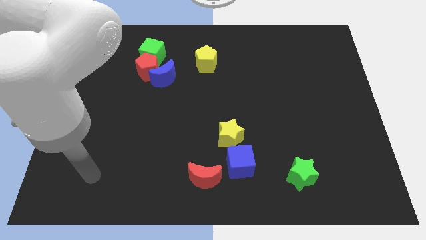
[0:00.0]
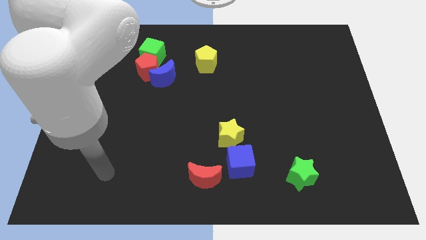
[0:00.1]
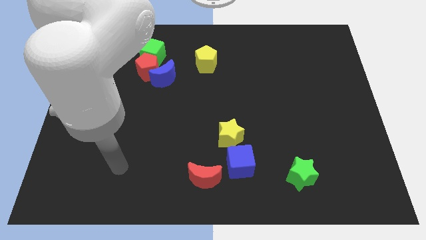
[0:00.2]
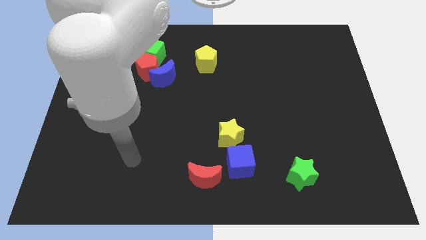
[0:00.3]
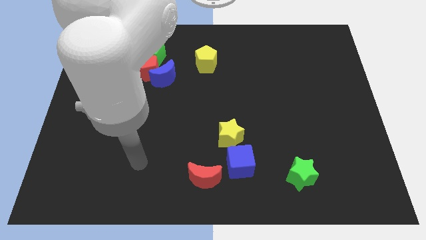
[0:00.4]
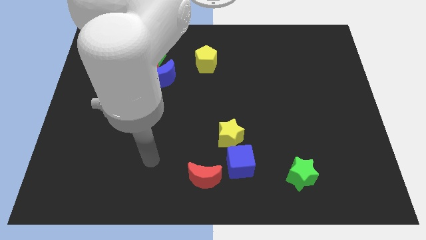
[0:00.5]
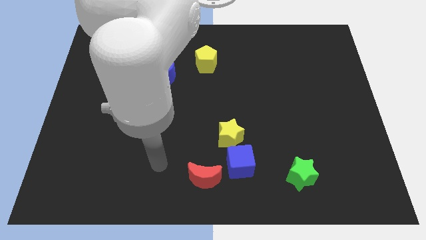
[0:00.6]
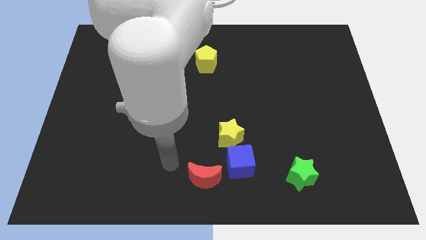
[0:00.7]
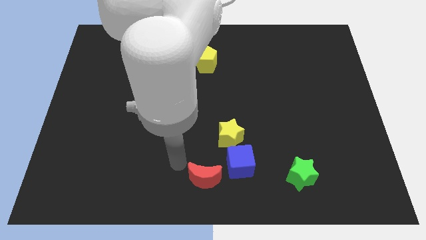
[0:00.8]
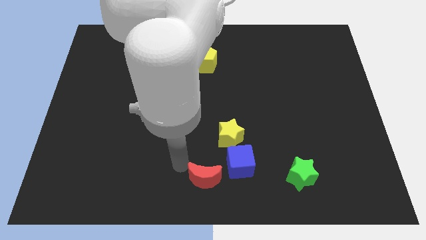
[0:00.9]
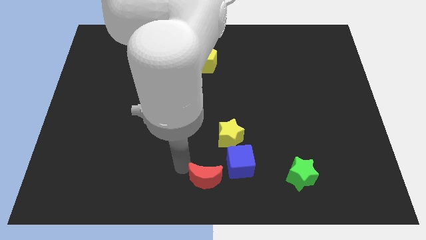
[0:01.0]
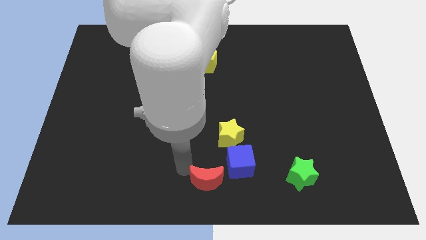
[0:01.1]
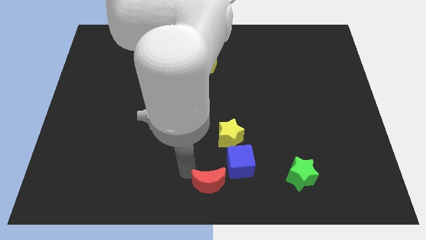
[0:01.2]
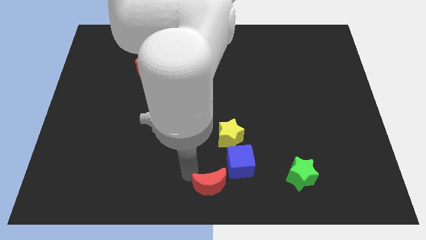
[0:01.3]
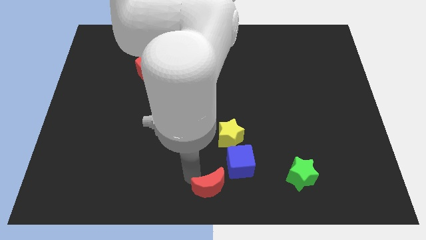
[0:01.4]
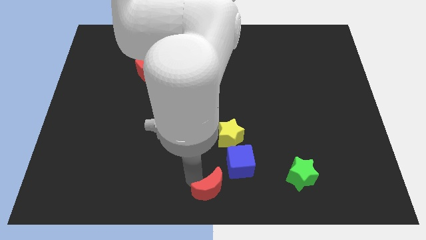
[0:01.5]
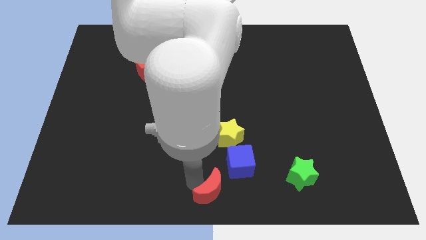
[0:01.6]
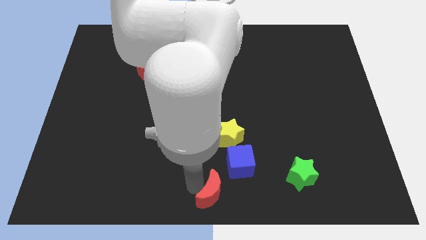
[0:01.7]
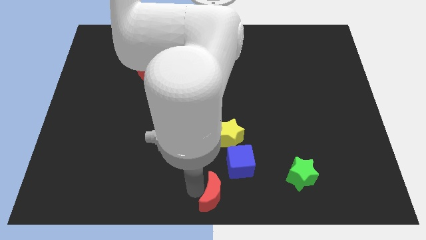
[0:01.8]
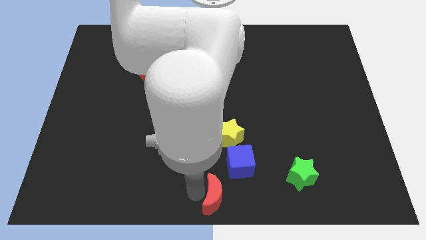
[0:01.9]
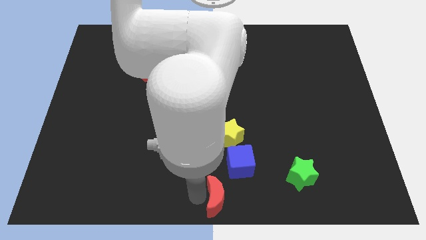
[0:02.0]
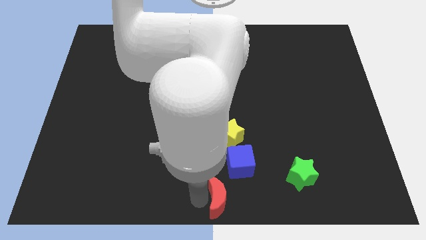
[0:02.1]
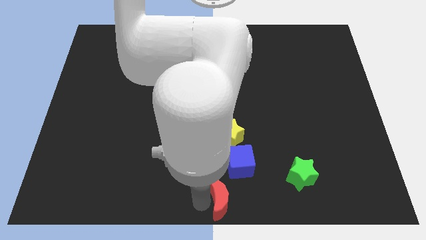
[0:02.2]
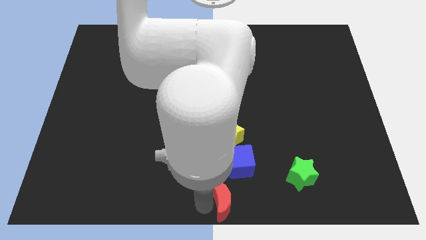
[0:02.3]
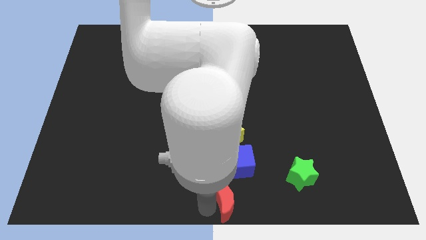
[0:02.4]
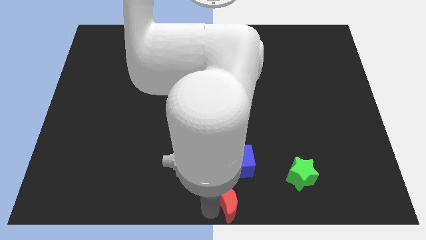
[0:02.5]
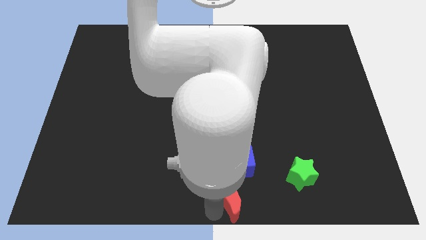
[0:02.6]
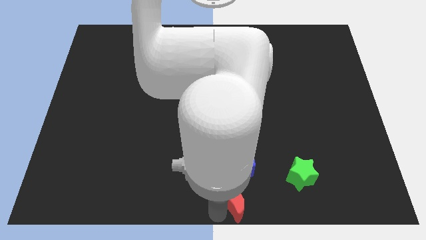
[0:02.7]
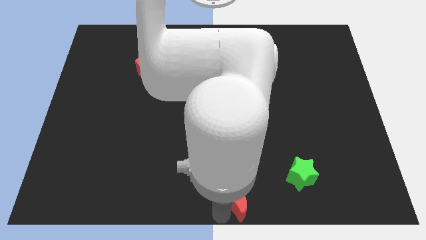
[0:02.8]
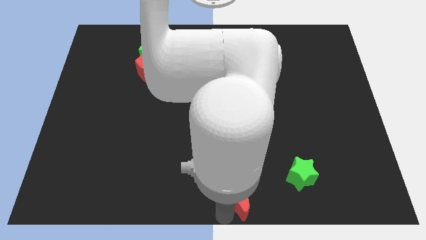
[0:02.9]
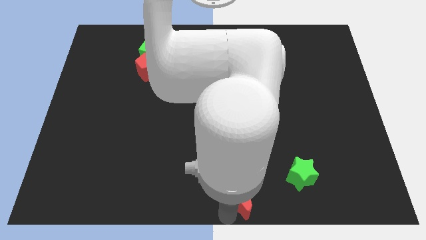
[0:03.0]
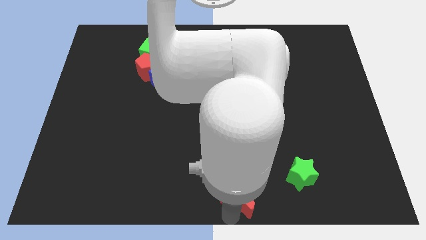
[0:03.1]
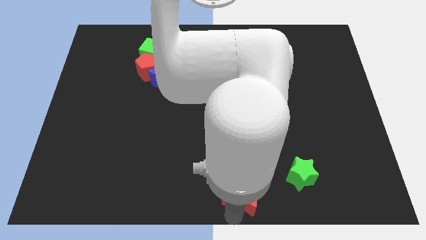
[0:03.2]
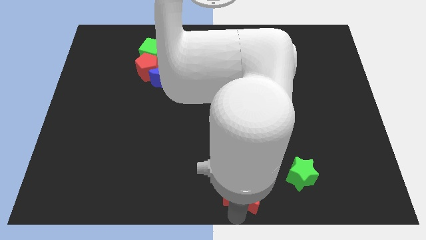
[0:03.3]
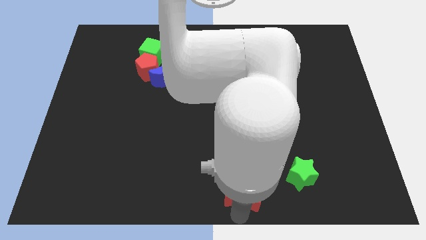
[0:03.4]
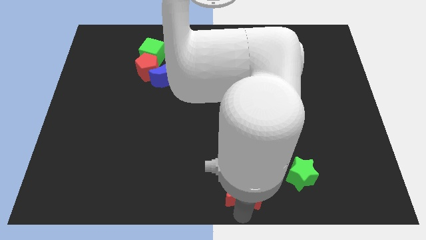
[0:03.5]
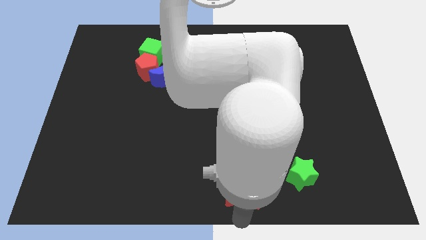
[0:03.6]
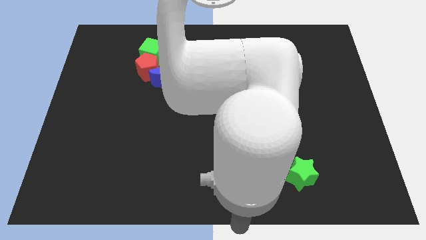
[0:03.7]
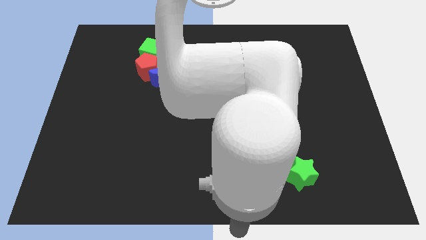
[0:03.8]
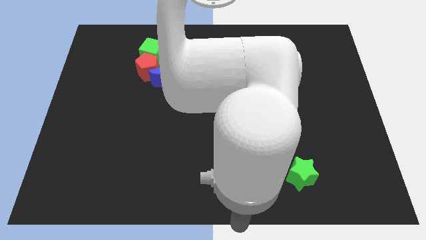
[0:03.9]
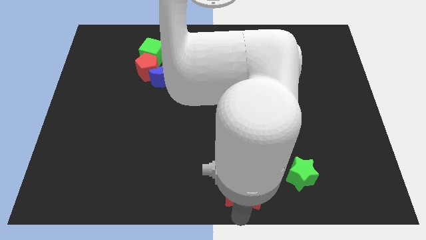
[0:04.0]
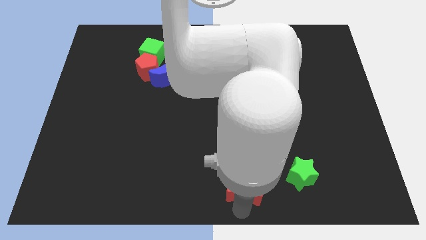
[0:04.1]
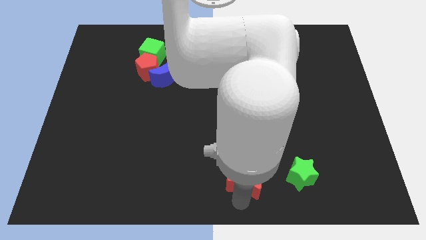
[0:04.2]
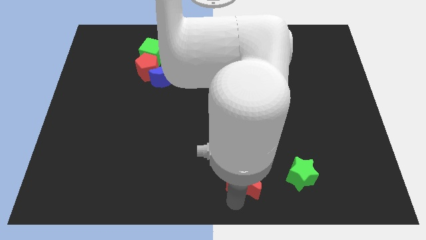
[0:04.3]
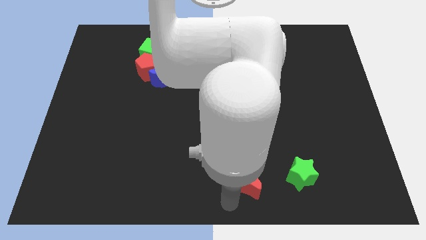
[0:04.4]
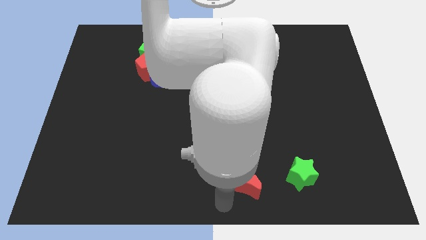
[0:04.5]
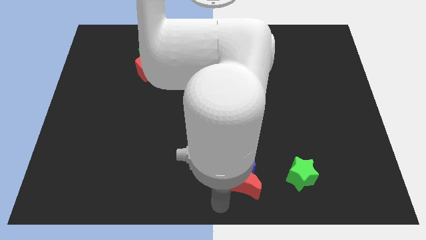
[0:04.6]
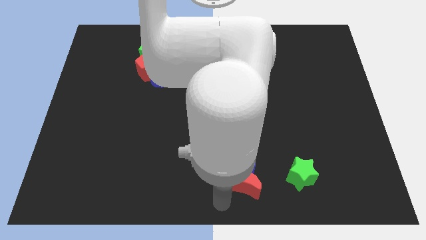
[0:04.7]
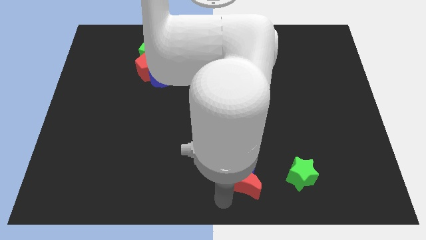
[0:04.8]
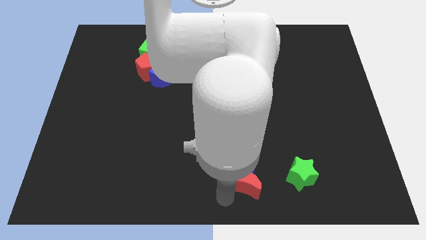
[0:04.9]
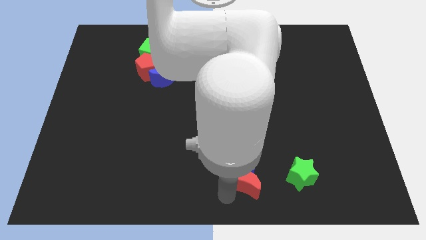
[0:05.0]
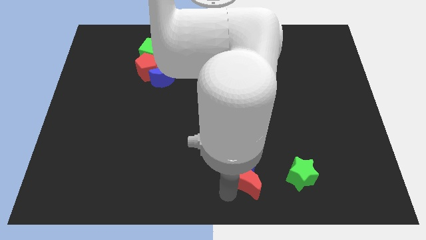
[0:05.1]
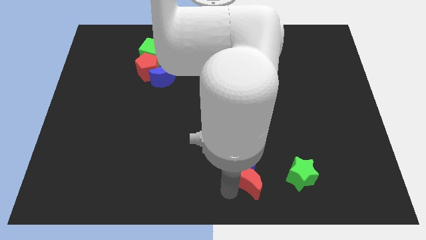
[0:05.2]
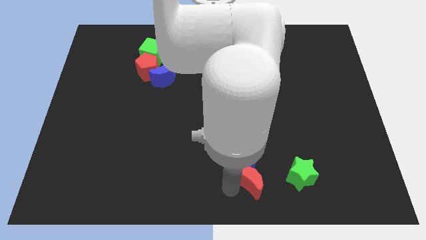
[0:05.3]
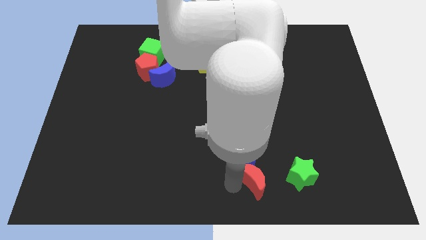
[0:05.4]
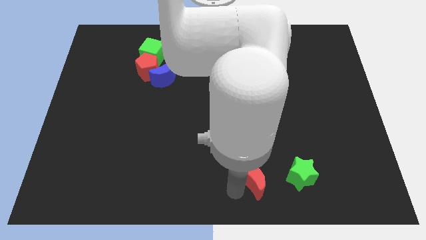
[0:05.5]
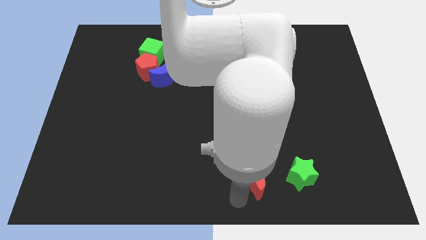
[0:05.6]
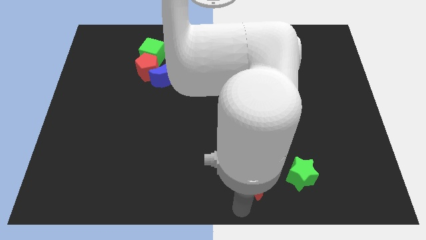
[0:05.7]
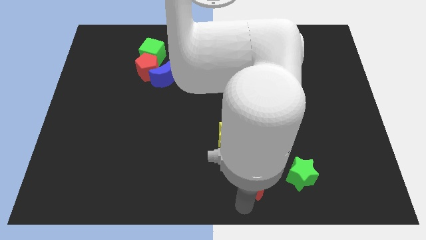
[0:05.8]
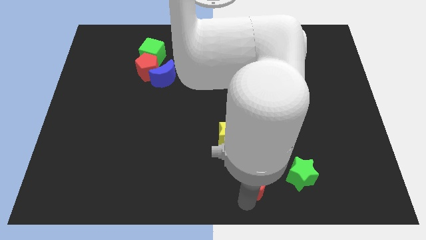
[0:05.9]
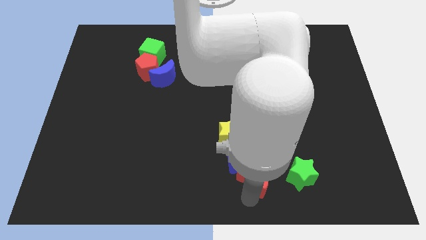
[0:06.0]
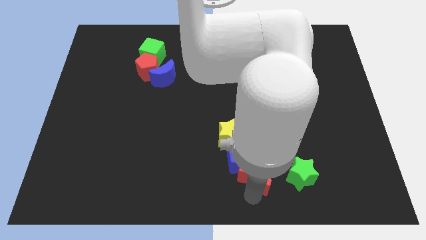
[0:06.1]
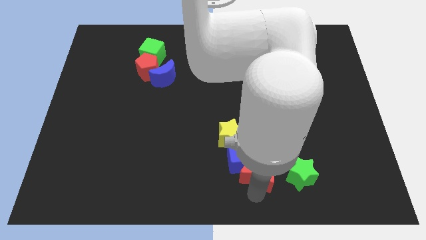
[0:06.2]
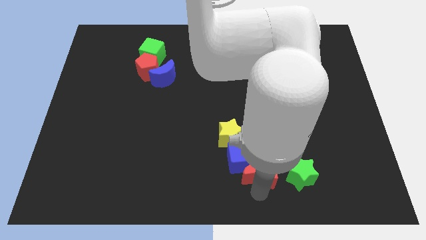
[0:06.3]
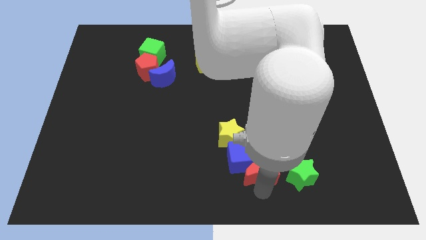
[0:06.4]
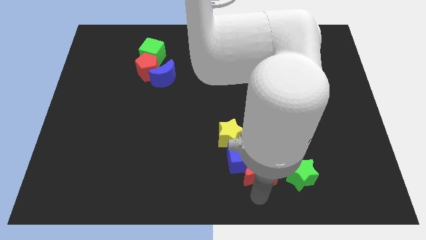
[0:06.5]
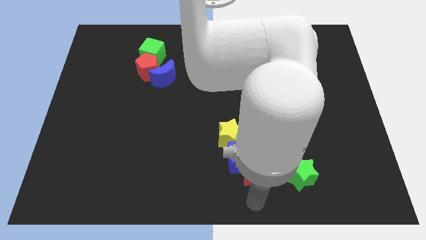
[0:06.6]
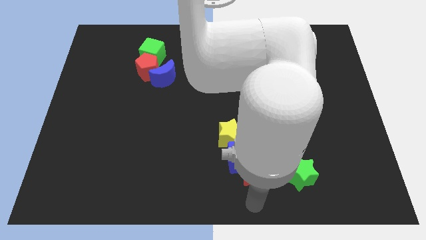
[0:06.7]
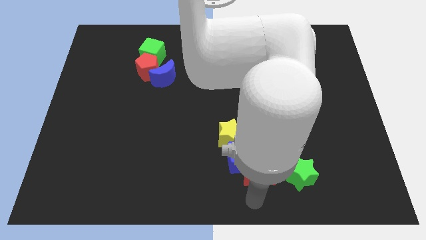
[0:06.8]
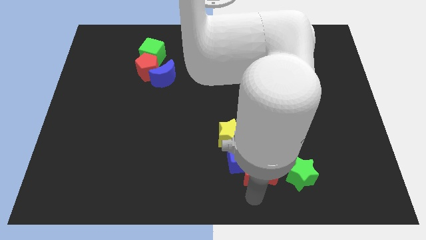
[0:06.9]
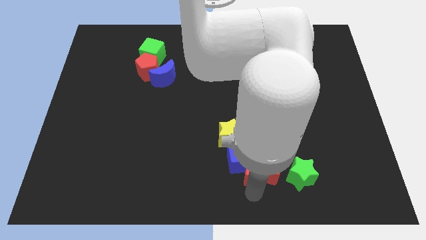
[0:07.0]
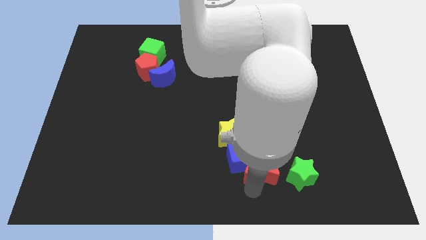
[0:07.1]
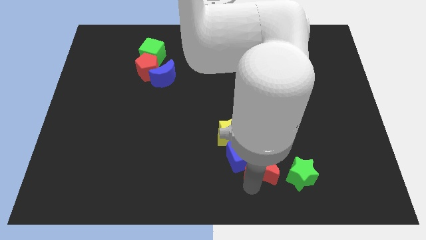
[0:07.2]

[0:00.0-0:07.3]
push the red moon a little bit diagonally upwards and right

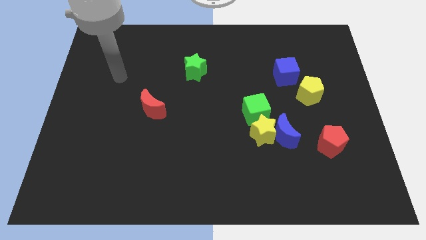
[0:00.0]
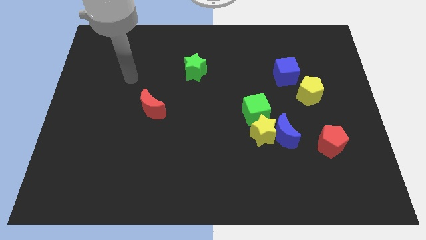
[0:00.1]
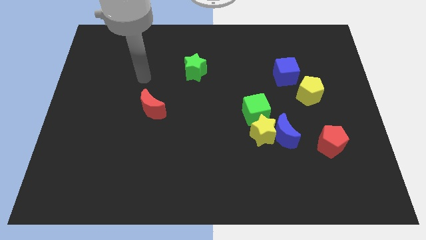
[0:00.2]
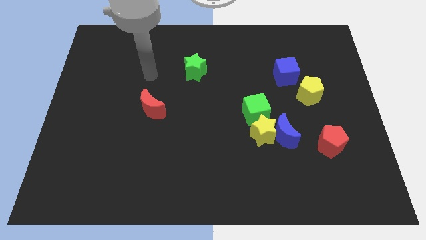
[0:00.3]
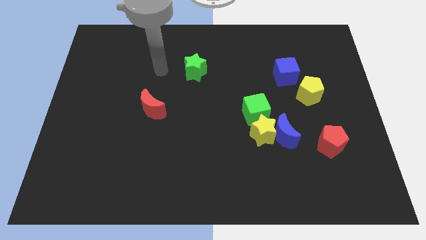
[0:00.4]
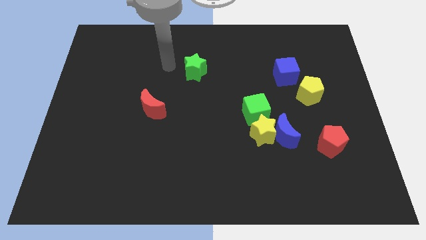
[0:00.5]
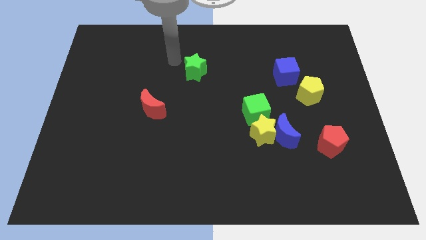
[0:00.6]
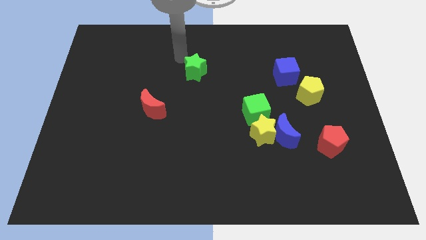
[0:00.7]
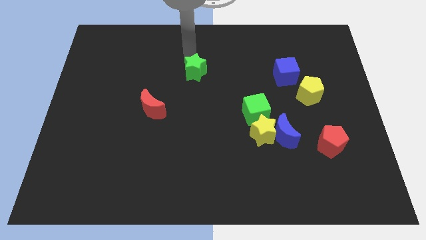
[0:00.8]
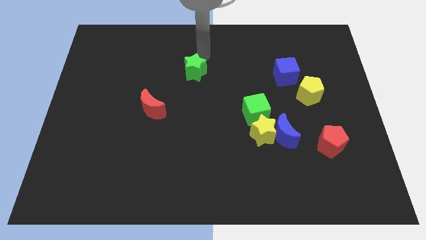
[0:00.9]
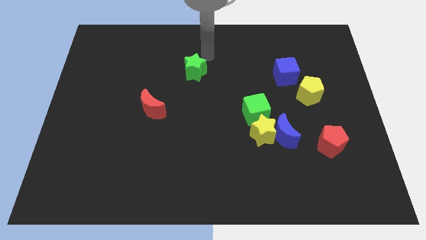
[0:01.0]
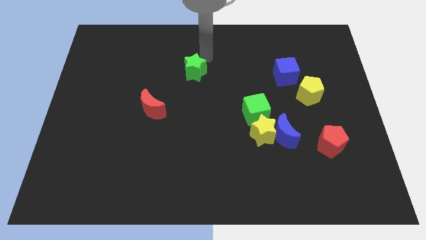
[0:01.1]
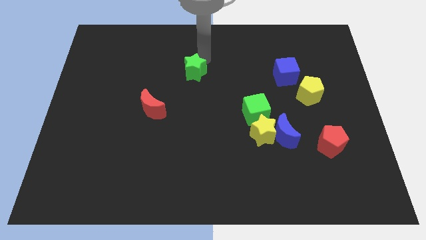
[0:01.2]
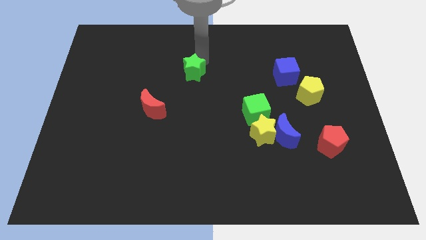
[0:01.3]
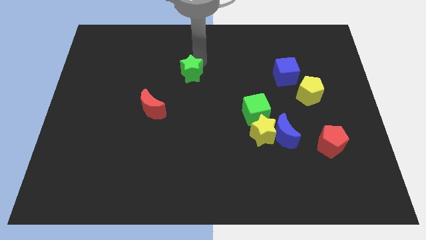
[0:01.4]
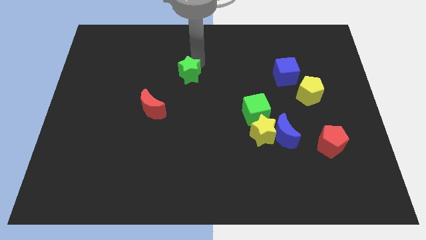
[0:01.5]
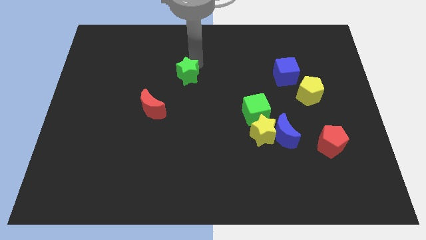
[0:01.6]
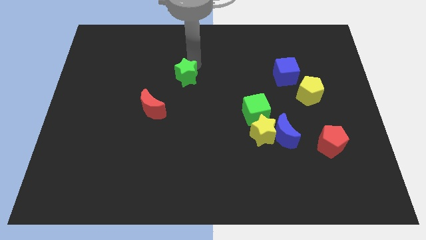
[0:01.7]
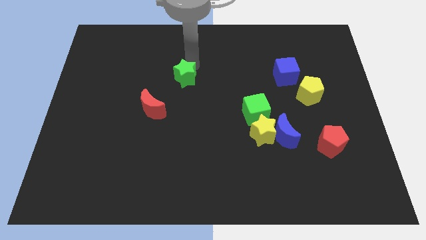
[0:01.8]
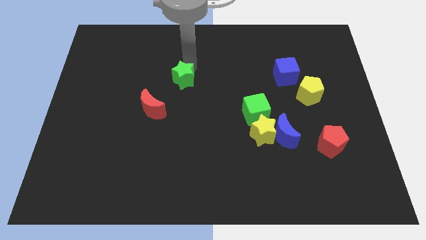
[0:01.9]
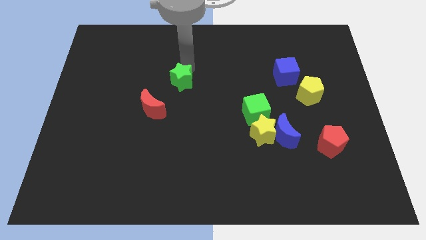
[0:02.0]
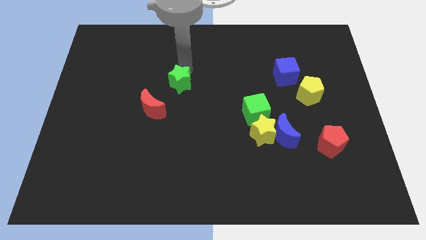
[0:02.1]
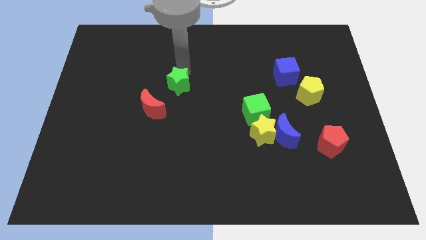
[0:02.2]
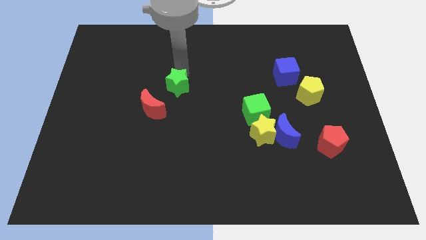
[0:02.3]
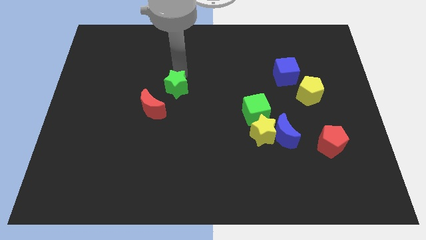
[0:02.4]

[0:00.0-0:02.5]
slide the green star slightly downwards and then left
